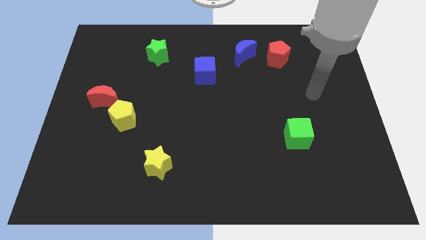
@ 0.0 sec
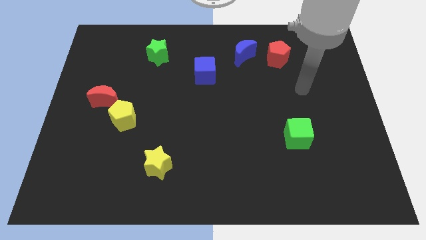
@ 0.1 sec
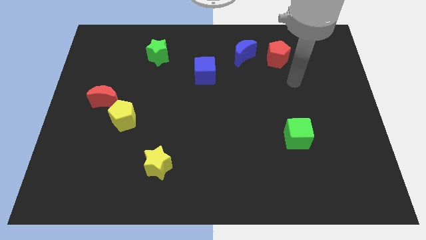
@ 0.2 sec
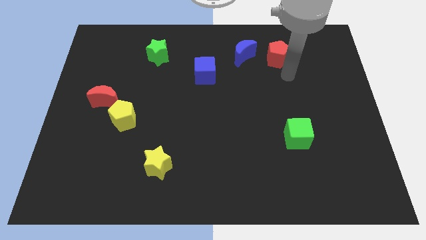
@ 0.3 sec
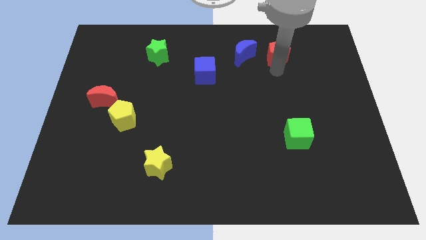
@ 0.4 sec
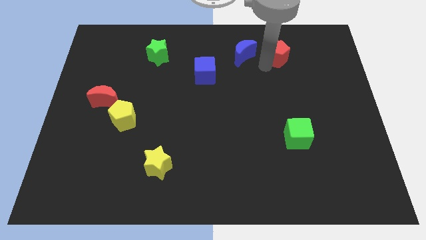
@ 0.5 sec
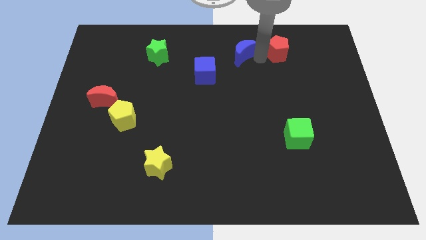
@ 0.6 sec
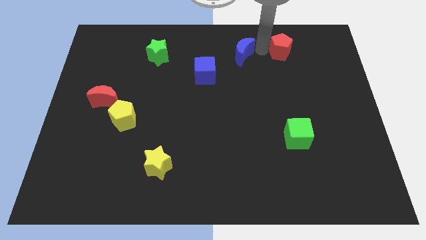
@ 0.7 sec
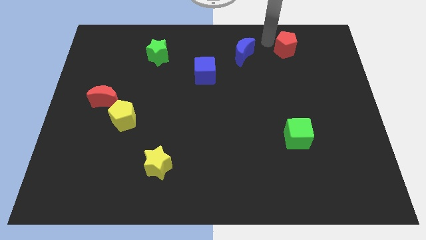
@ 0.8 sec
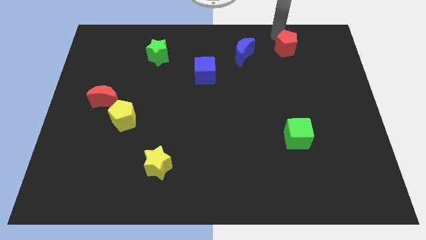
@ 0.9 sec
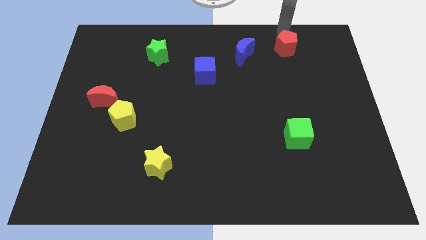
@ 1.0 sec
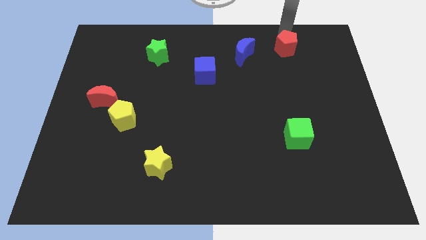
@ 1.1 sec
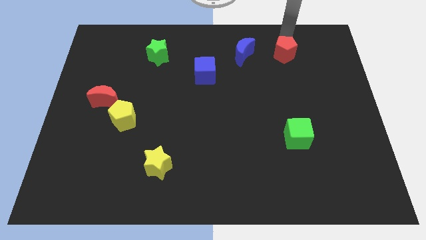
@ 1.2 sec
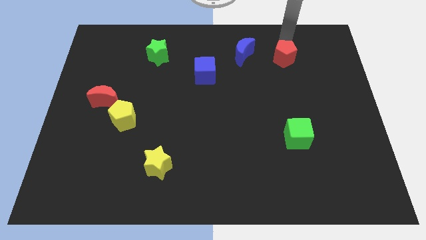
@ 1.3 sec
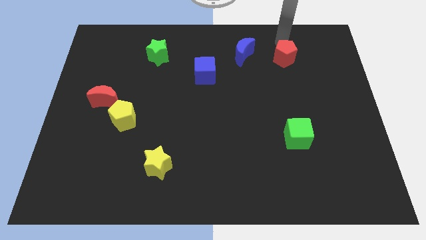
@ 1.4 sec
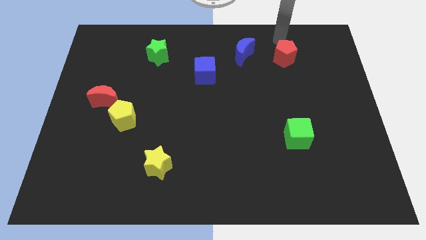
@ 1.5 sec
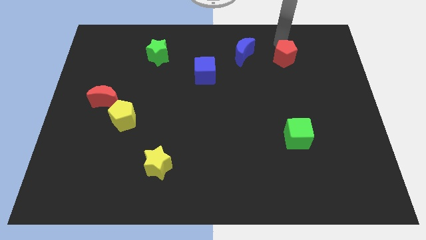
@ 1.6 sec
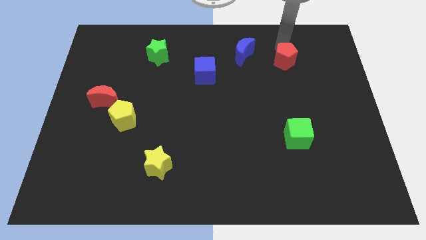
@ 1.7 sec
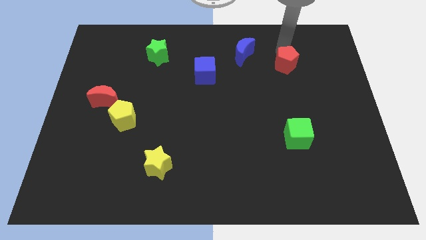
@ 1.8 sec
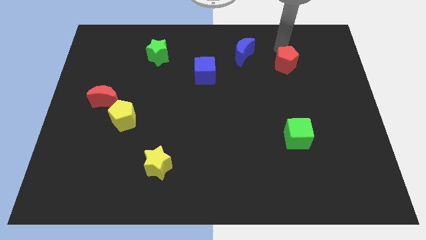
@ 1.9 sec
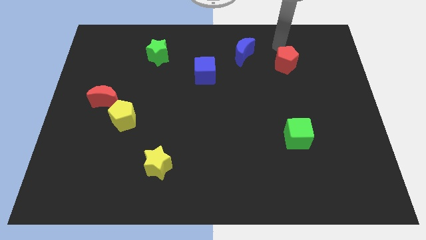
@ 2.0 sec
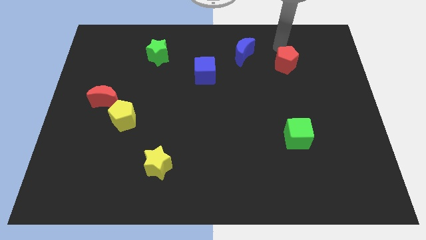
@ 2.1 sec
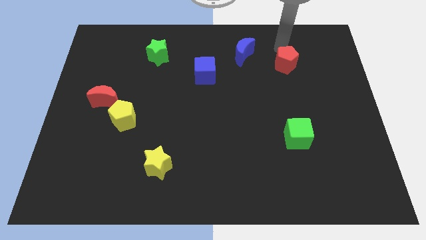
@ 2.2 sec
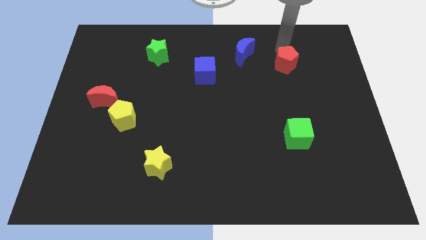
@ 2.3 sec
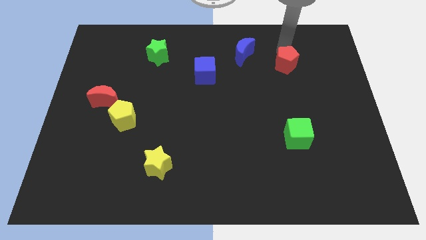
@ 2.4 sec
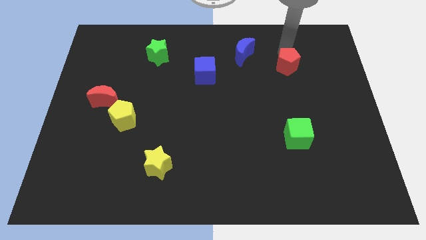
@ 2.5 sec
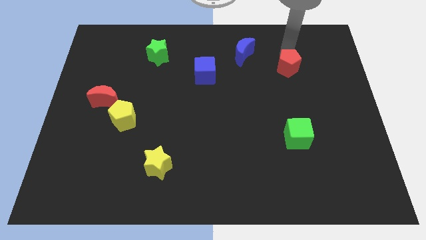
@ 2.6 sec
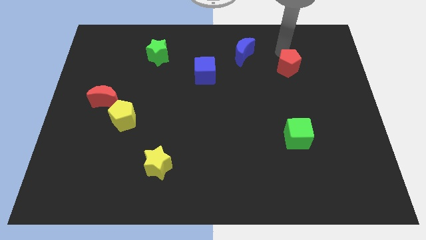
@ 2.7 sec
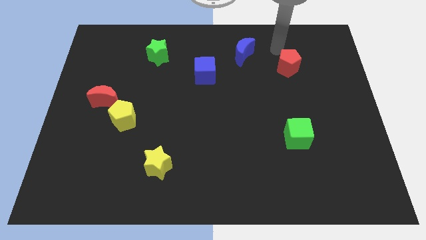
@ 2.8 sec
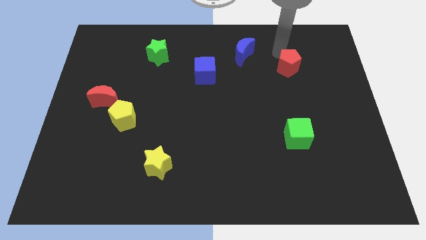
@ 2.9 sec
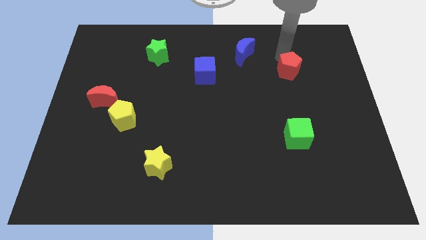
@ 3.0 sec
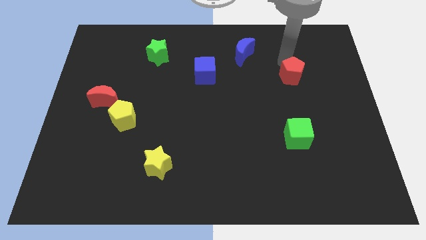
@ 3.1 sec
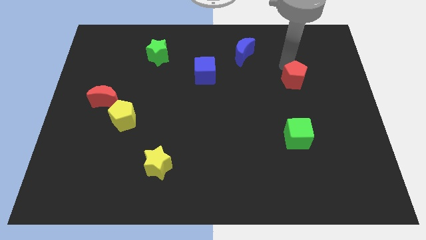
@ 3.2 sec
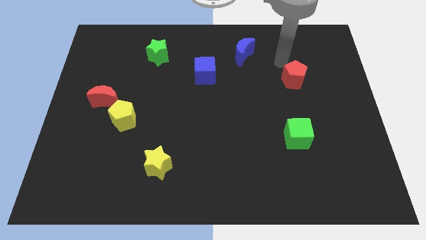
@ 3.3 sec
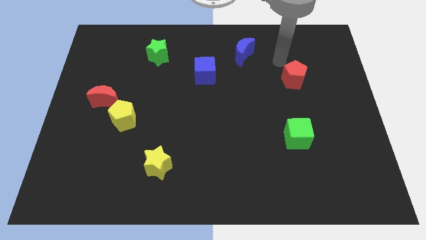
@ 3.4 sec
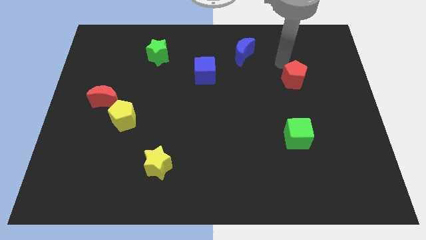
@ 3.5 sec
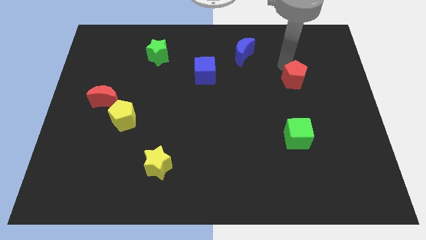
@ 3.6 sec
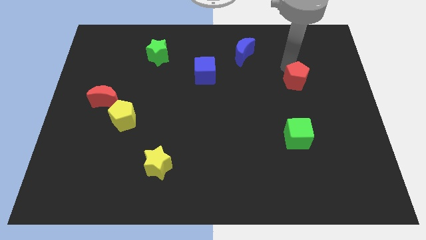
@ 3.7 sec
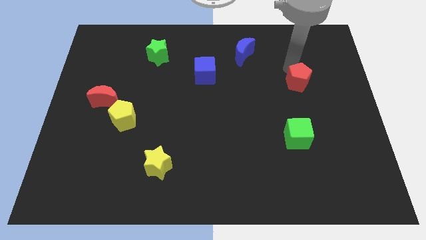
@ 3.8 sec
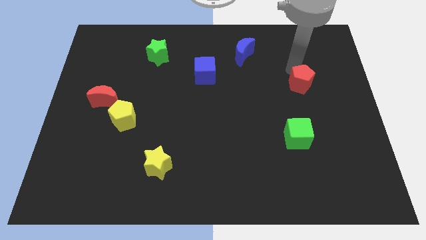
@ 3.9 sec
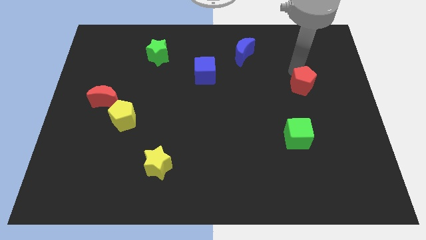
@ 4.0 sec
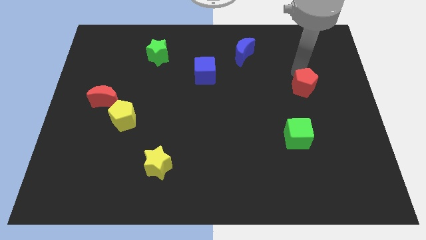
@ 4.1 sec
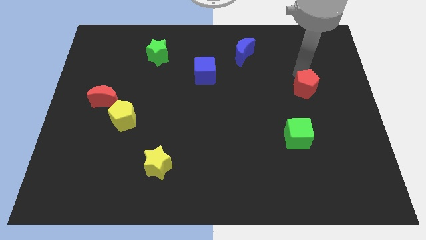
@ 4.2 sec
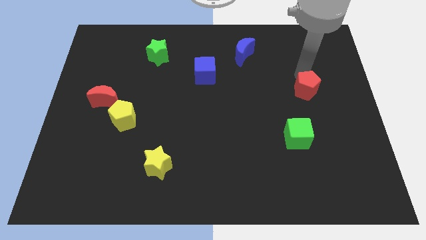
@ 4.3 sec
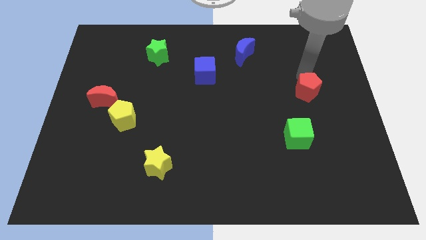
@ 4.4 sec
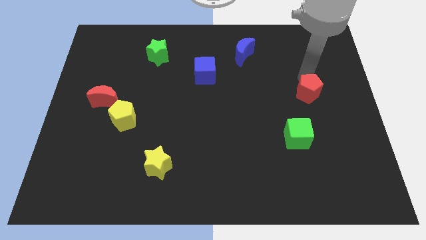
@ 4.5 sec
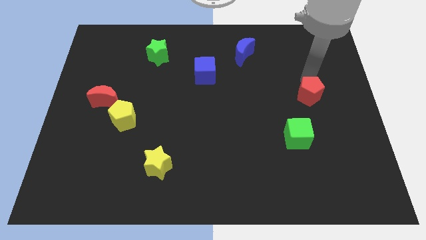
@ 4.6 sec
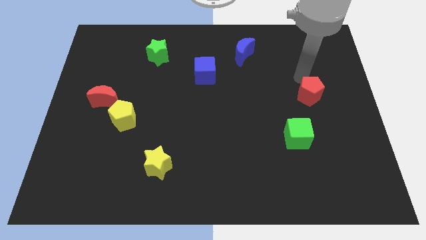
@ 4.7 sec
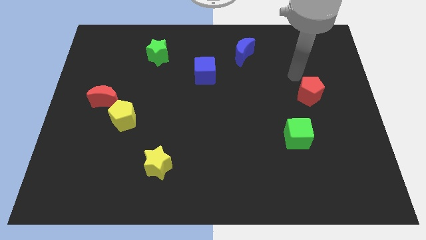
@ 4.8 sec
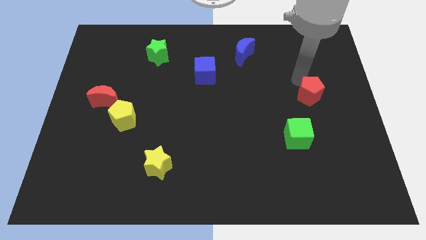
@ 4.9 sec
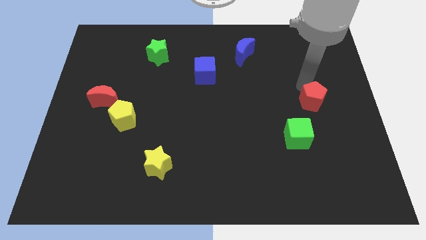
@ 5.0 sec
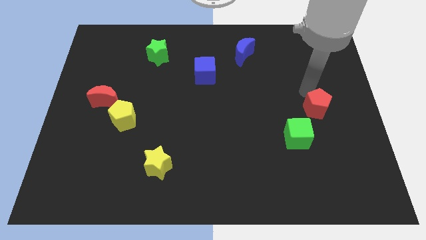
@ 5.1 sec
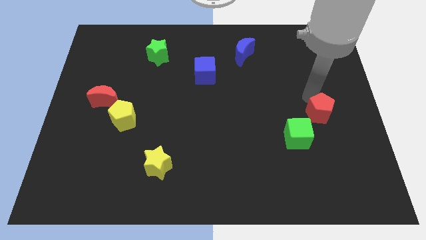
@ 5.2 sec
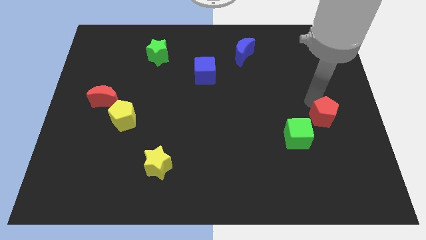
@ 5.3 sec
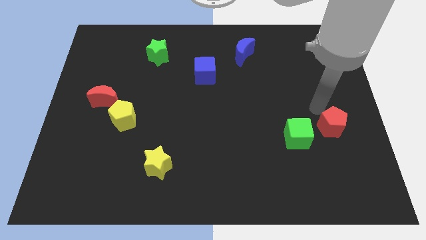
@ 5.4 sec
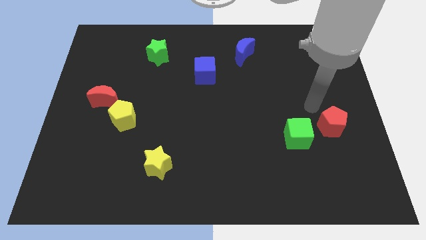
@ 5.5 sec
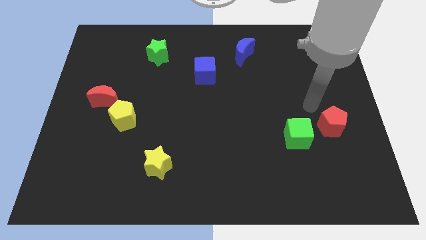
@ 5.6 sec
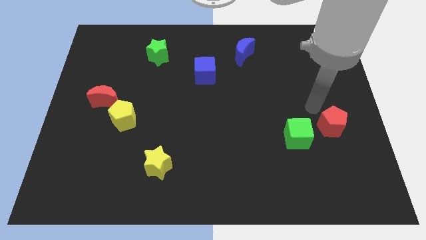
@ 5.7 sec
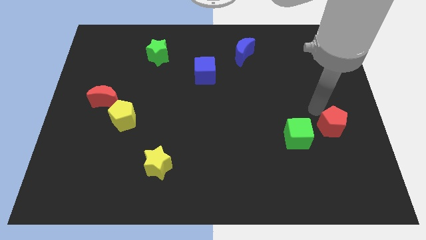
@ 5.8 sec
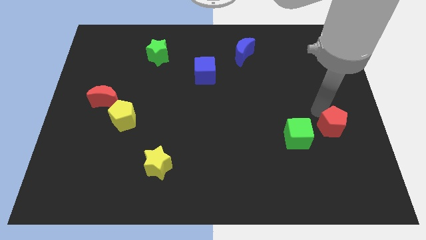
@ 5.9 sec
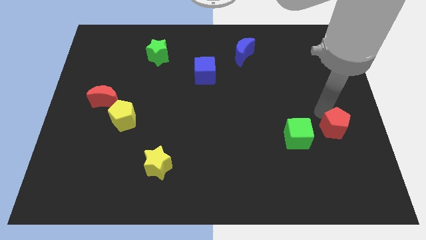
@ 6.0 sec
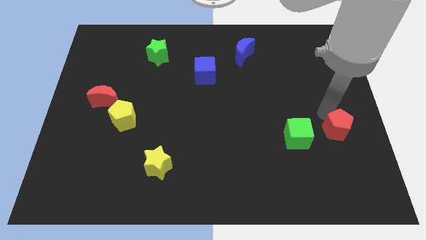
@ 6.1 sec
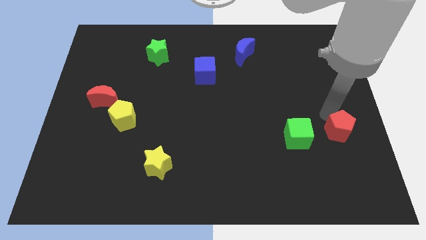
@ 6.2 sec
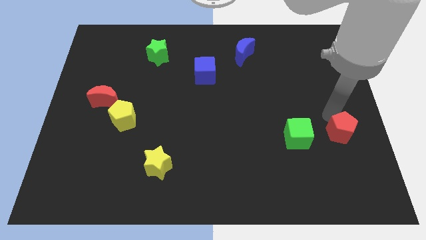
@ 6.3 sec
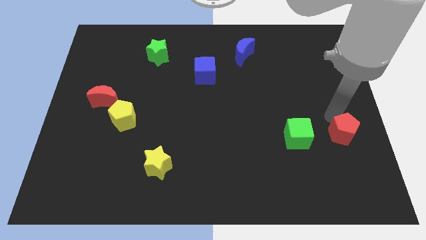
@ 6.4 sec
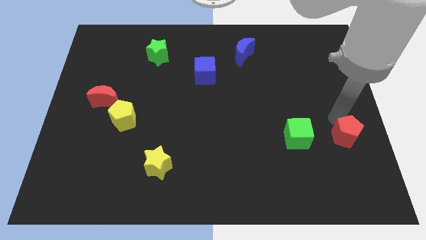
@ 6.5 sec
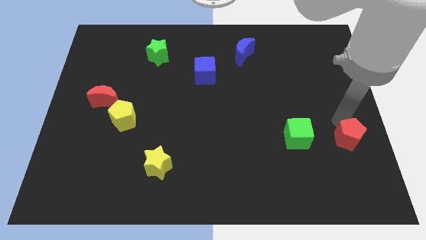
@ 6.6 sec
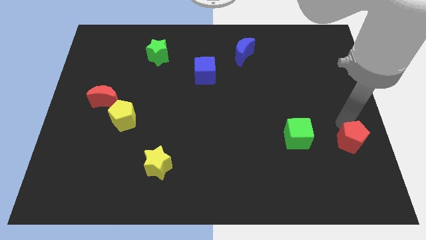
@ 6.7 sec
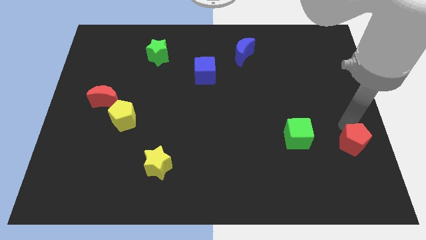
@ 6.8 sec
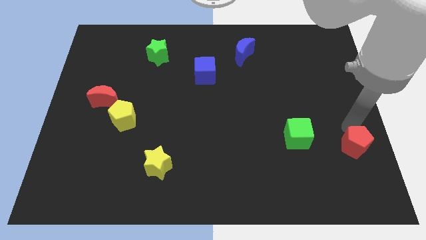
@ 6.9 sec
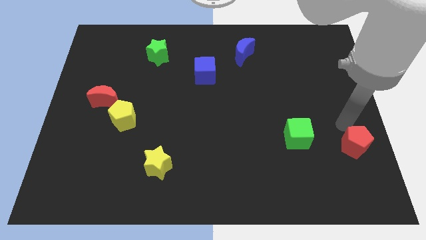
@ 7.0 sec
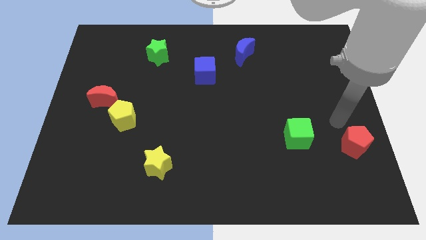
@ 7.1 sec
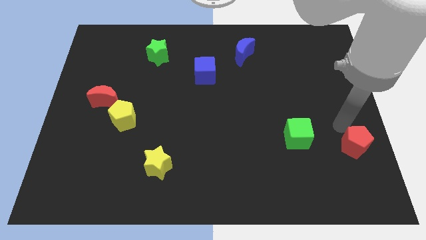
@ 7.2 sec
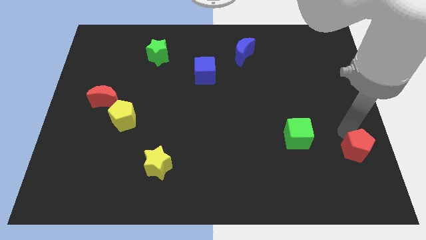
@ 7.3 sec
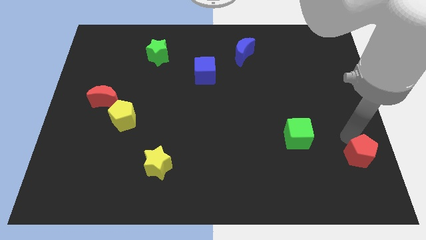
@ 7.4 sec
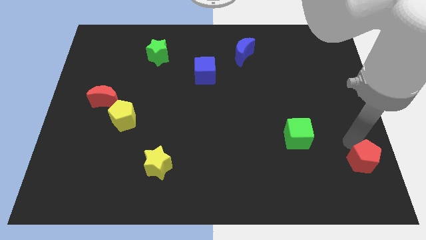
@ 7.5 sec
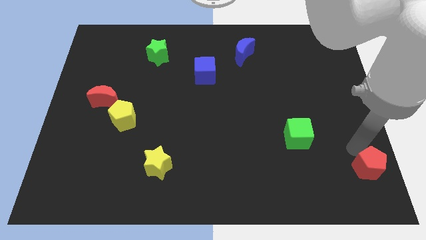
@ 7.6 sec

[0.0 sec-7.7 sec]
push the red pentagon to the lower right corner
